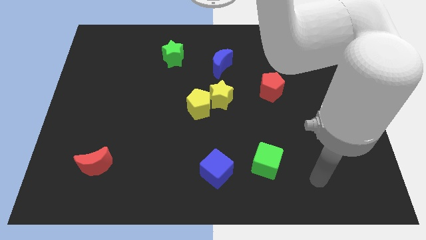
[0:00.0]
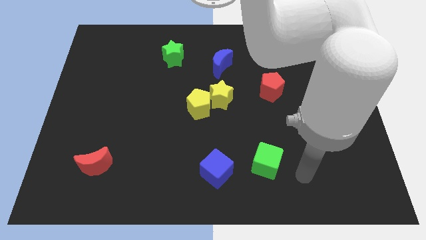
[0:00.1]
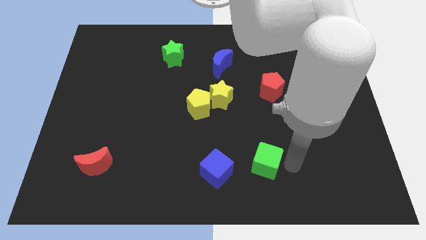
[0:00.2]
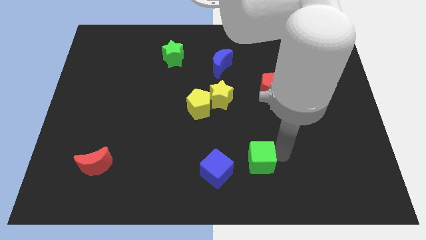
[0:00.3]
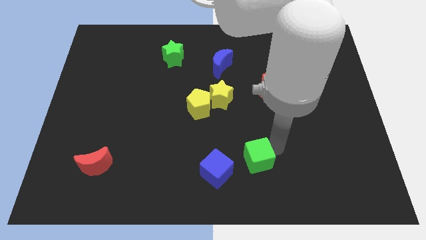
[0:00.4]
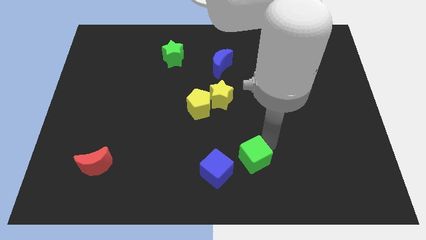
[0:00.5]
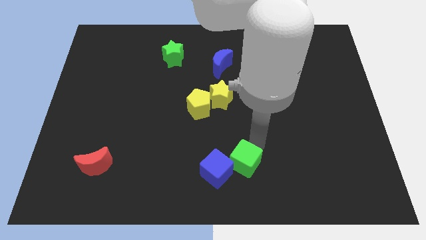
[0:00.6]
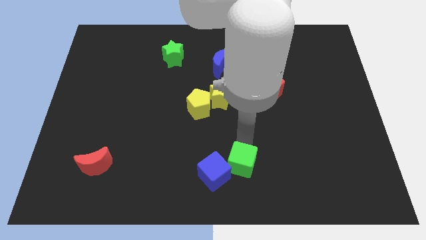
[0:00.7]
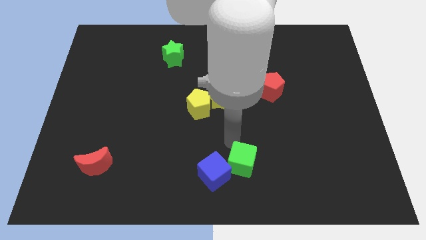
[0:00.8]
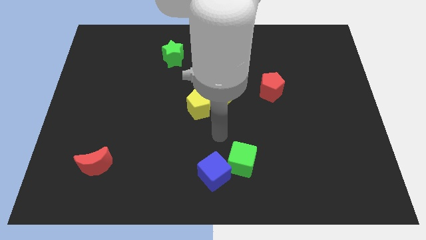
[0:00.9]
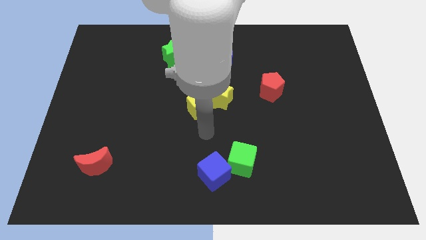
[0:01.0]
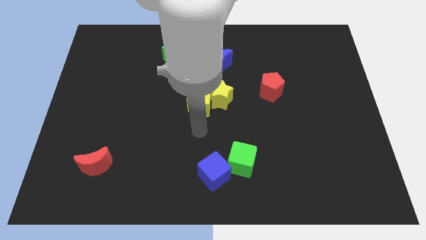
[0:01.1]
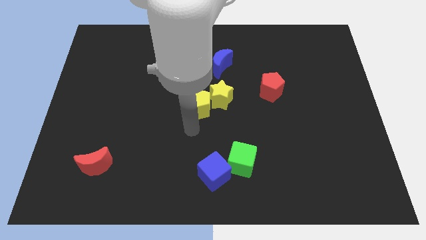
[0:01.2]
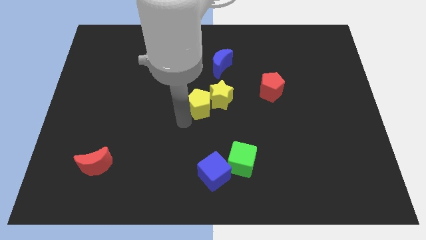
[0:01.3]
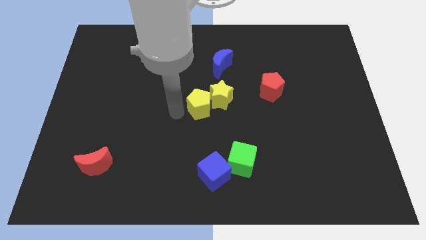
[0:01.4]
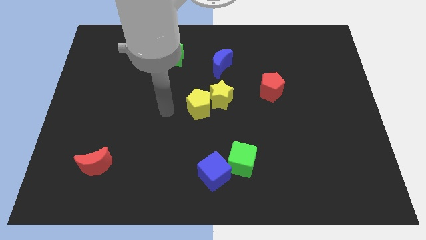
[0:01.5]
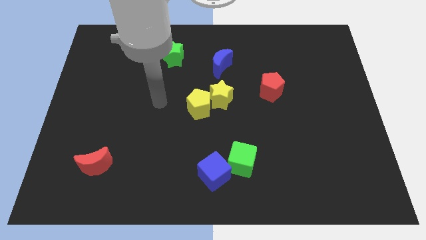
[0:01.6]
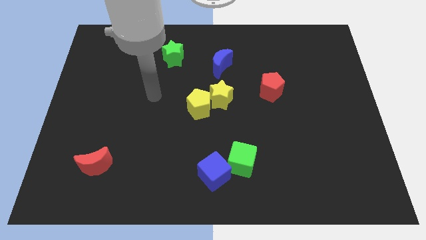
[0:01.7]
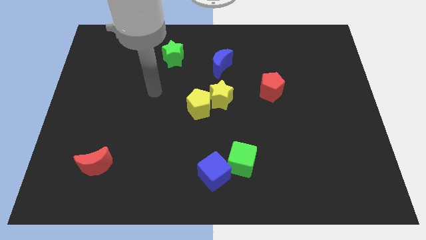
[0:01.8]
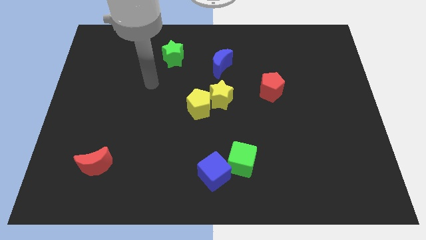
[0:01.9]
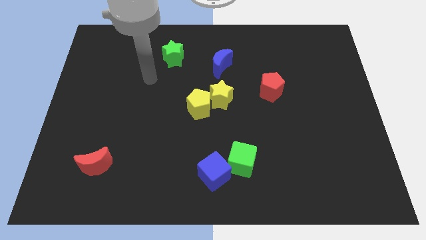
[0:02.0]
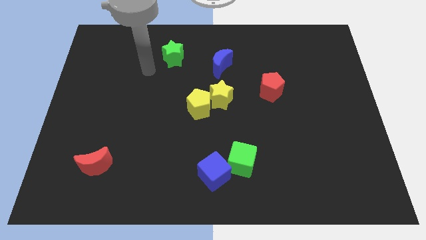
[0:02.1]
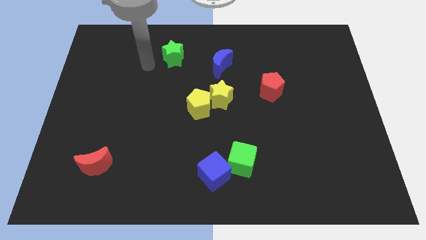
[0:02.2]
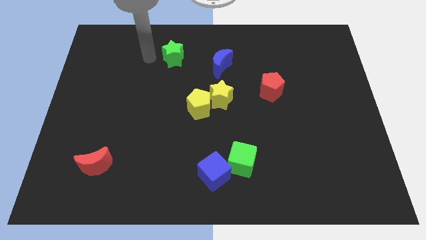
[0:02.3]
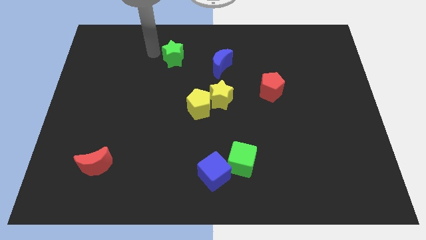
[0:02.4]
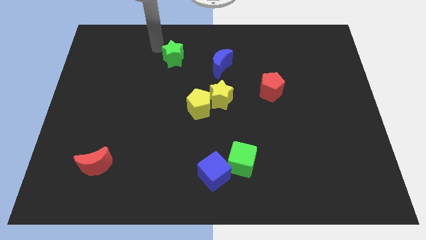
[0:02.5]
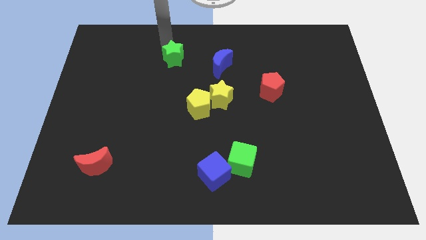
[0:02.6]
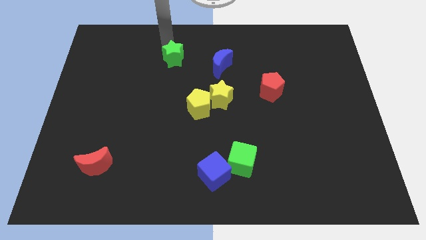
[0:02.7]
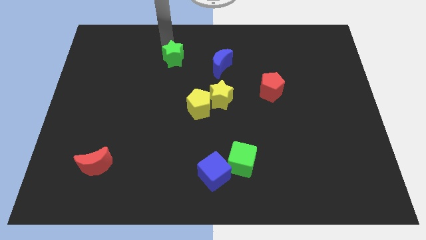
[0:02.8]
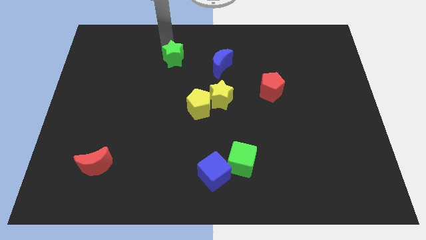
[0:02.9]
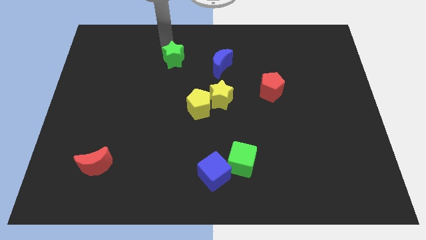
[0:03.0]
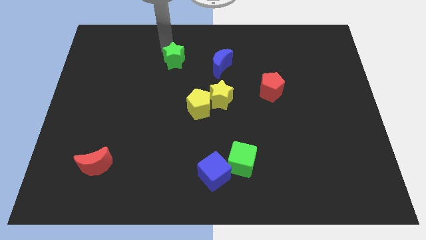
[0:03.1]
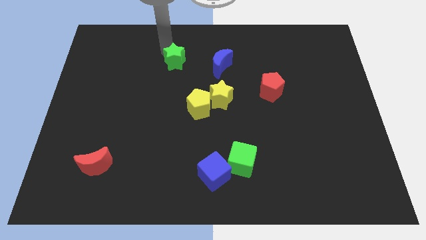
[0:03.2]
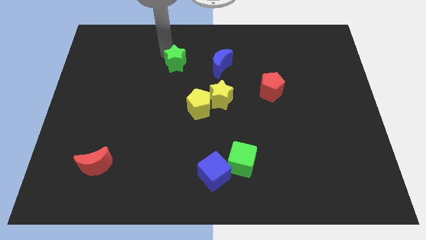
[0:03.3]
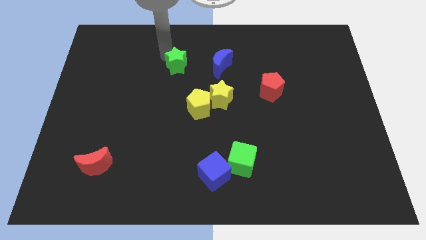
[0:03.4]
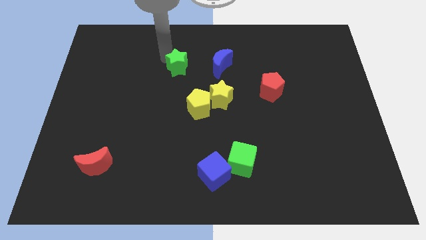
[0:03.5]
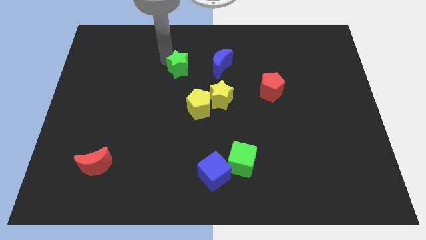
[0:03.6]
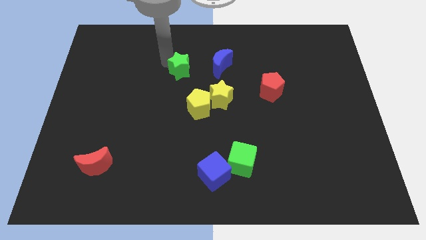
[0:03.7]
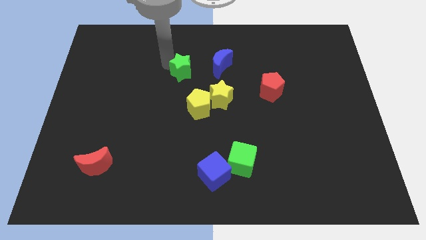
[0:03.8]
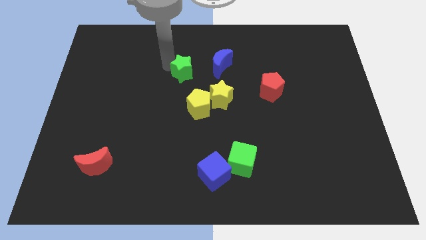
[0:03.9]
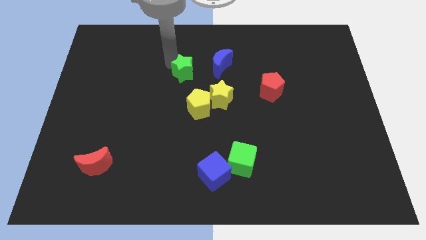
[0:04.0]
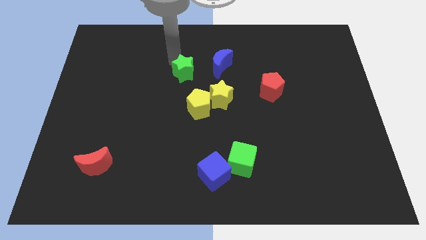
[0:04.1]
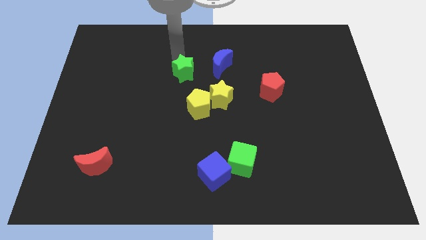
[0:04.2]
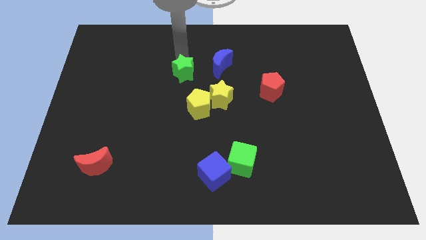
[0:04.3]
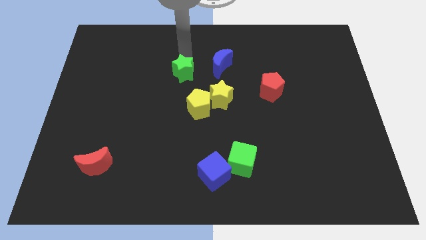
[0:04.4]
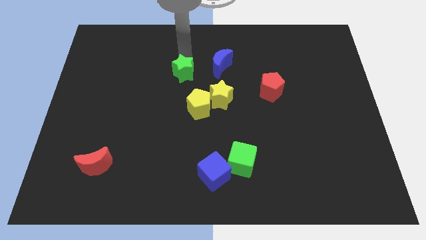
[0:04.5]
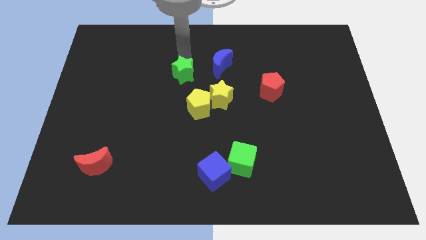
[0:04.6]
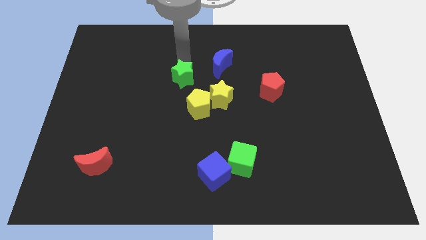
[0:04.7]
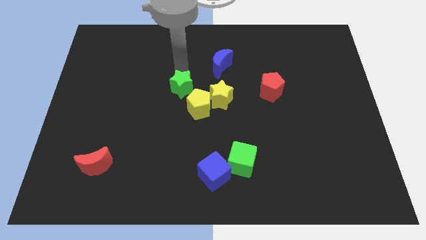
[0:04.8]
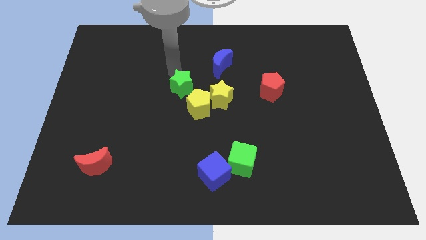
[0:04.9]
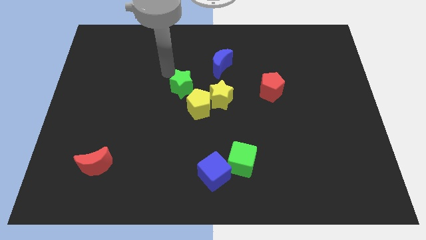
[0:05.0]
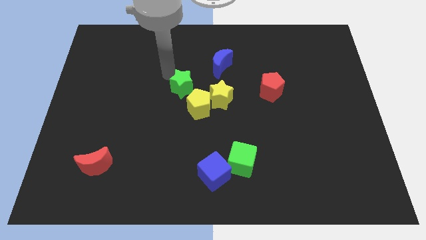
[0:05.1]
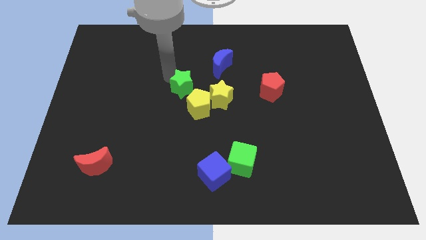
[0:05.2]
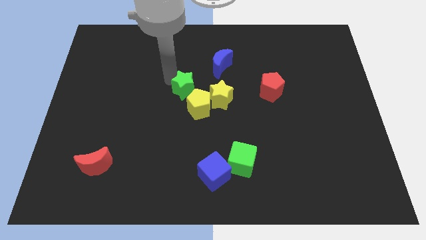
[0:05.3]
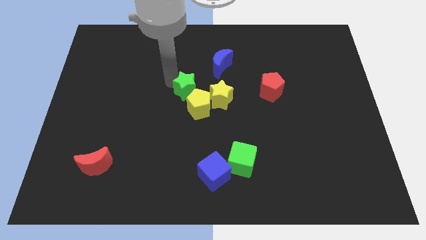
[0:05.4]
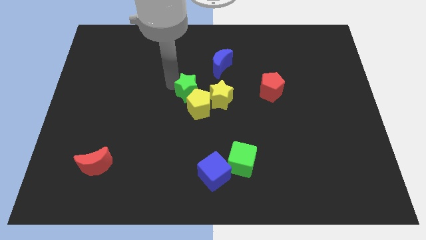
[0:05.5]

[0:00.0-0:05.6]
slide the green star to the yellow pentagon

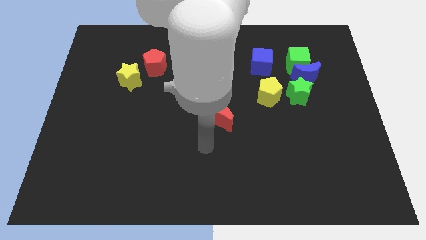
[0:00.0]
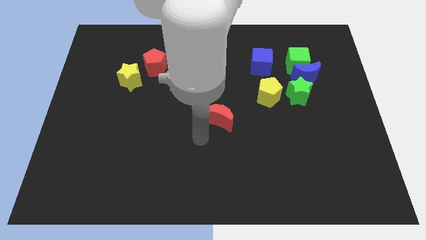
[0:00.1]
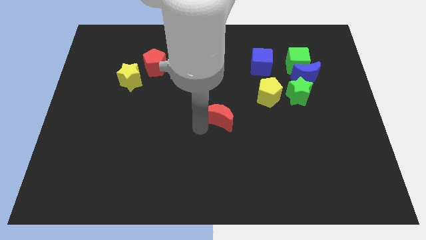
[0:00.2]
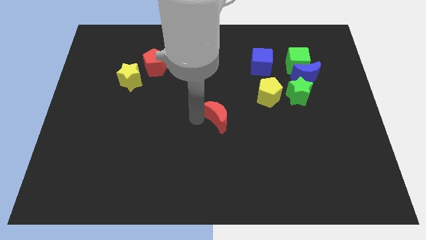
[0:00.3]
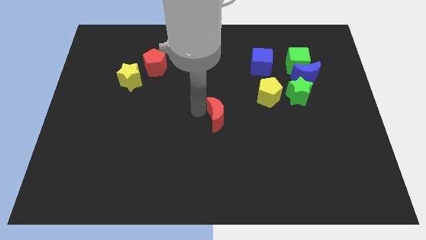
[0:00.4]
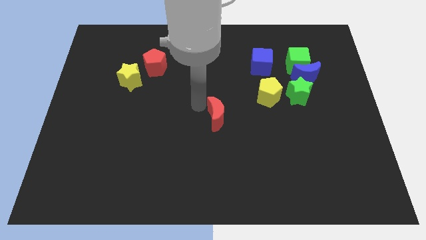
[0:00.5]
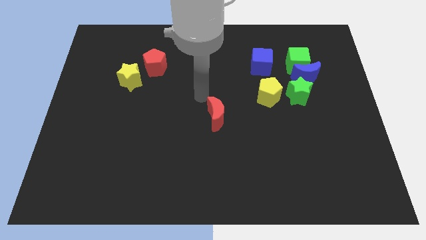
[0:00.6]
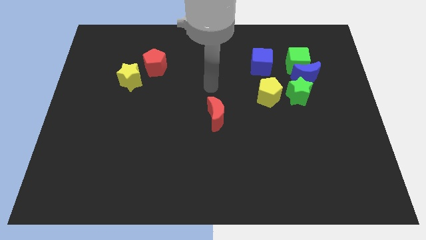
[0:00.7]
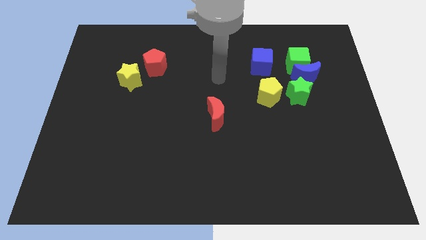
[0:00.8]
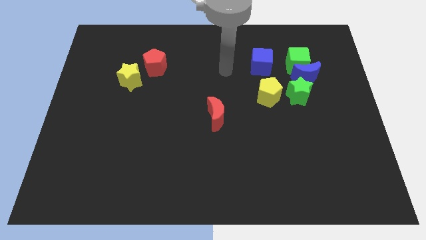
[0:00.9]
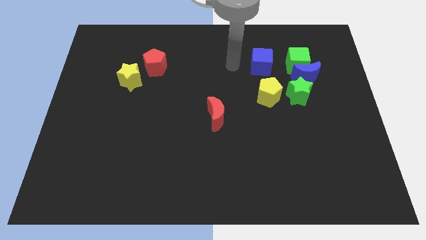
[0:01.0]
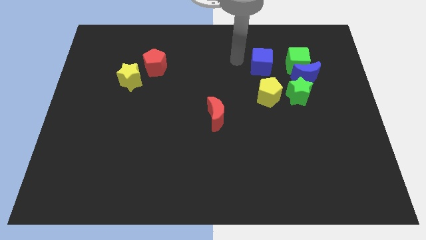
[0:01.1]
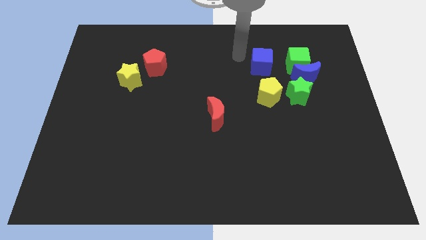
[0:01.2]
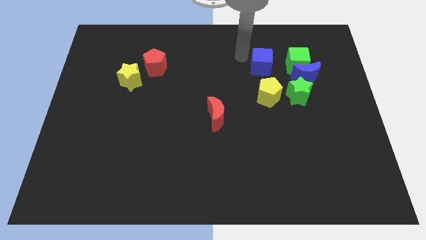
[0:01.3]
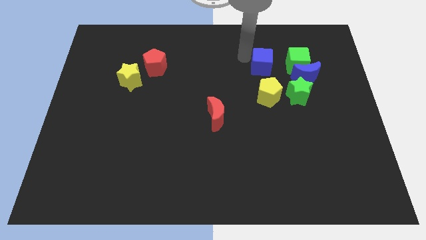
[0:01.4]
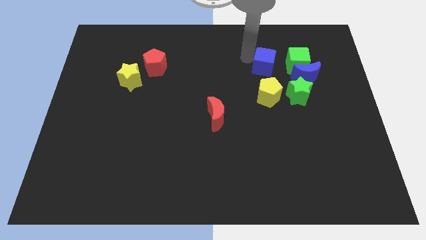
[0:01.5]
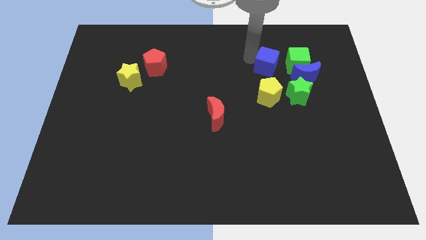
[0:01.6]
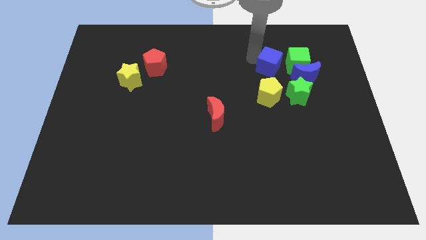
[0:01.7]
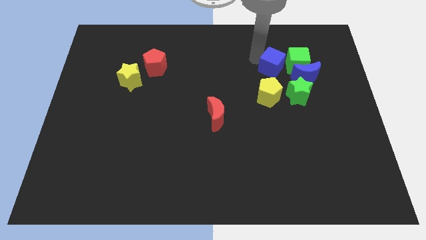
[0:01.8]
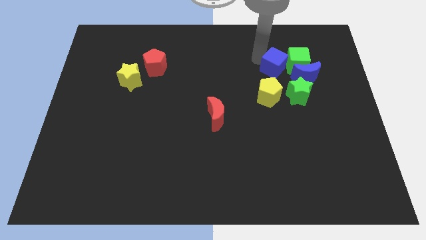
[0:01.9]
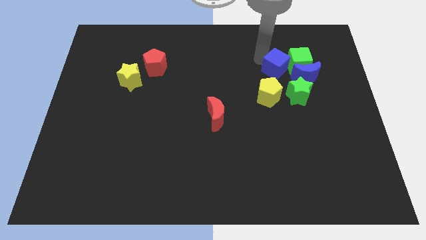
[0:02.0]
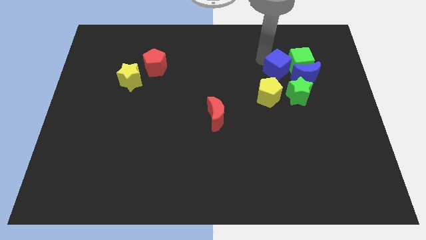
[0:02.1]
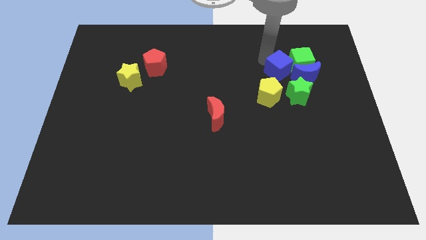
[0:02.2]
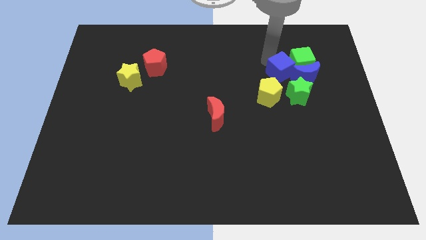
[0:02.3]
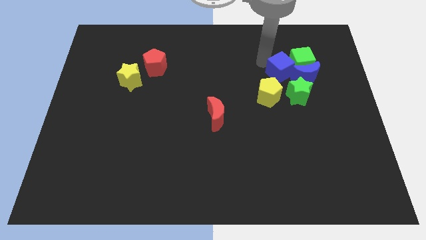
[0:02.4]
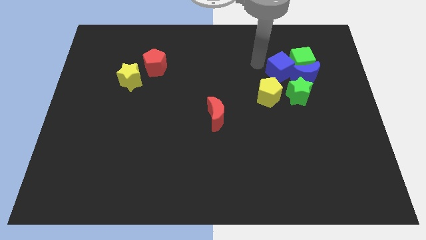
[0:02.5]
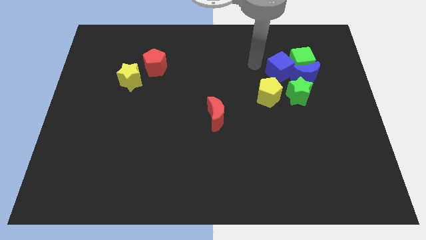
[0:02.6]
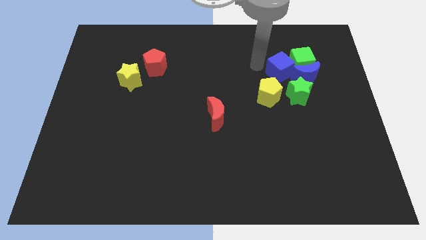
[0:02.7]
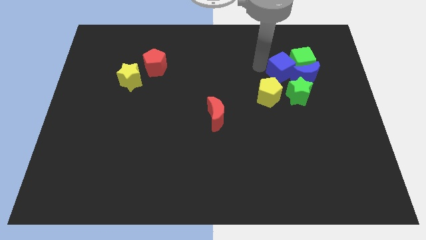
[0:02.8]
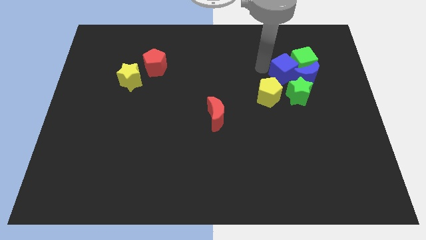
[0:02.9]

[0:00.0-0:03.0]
slide the blue cube next to the blue moon
